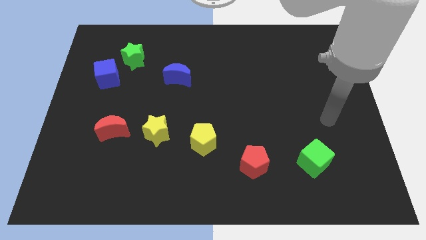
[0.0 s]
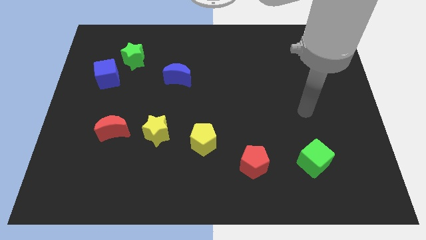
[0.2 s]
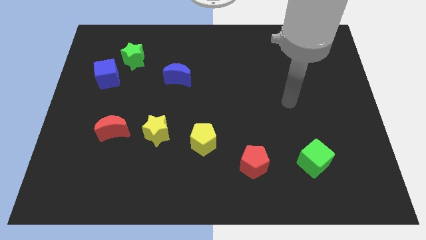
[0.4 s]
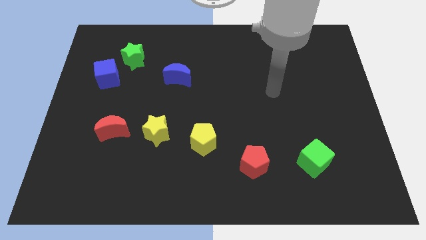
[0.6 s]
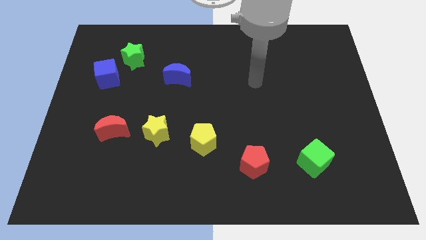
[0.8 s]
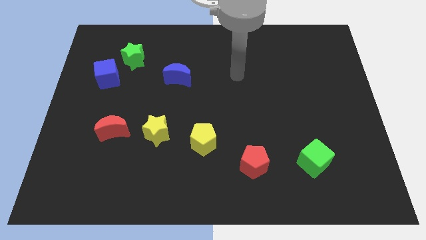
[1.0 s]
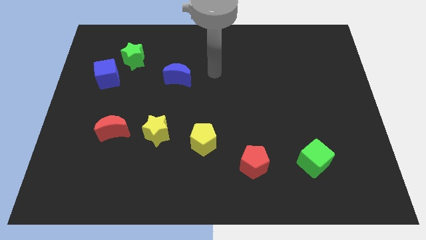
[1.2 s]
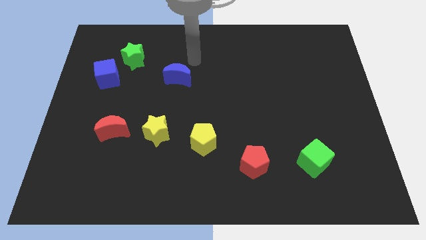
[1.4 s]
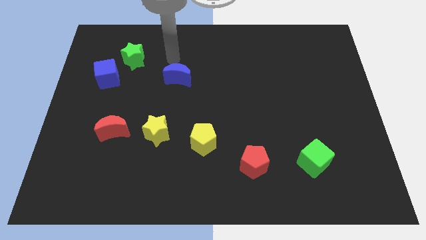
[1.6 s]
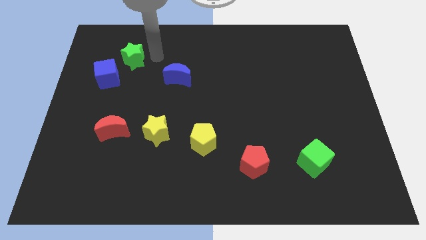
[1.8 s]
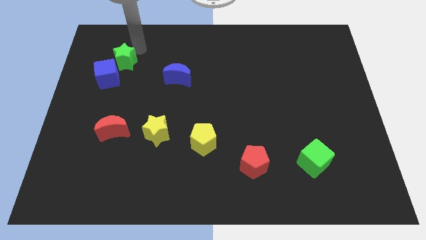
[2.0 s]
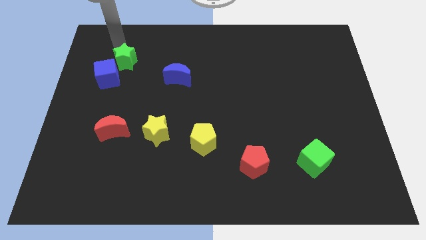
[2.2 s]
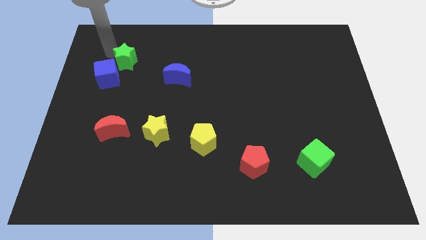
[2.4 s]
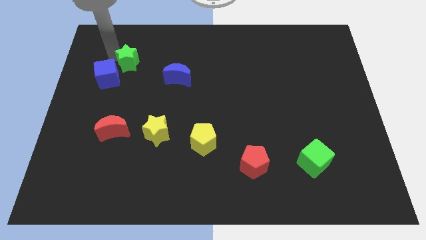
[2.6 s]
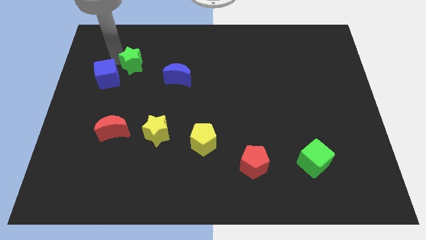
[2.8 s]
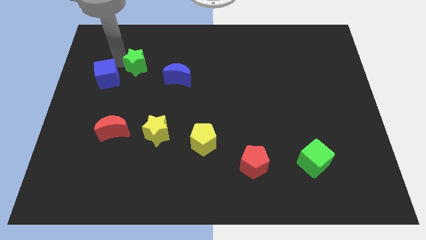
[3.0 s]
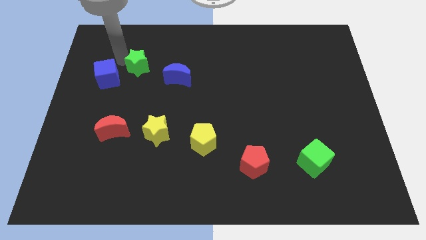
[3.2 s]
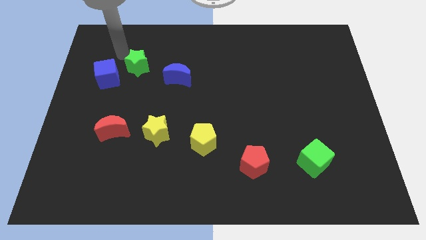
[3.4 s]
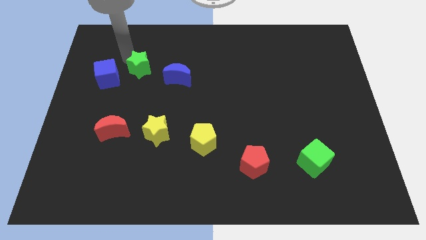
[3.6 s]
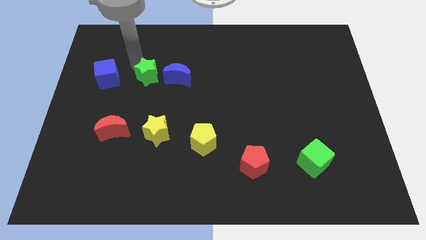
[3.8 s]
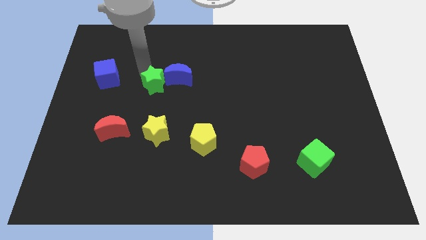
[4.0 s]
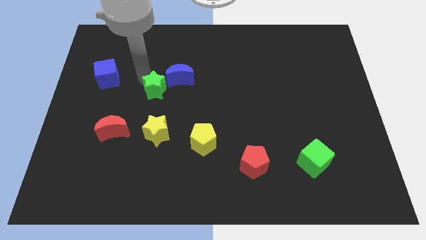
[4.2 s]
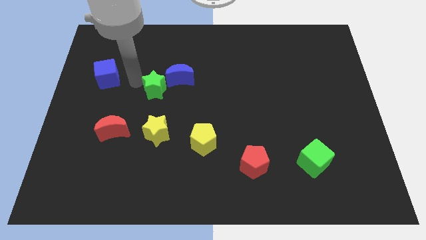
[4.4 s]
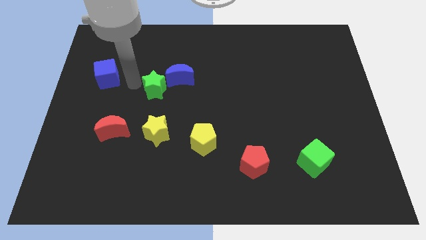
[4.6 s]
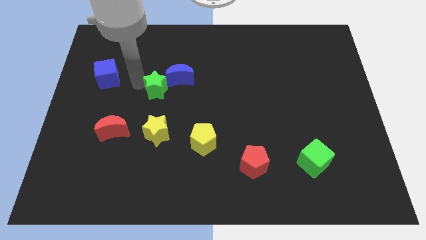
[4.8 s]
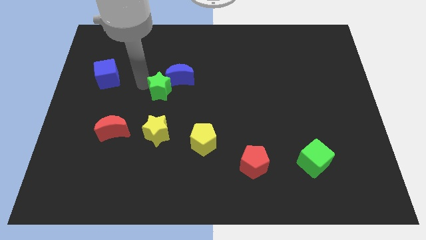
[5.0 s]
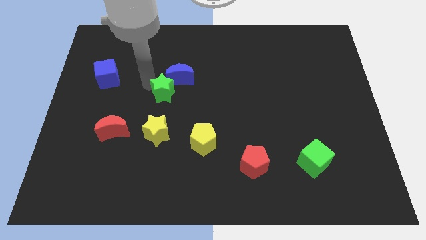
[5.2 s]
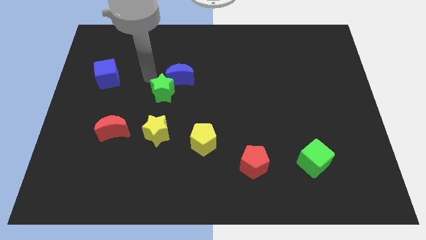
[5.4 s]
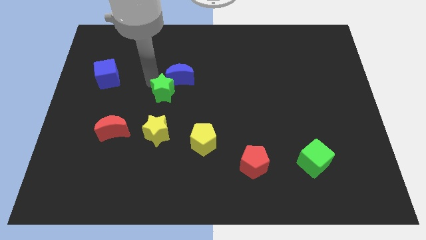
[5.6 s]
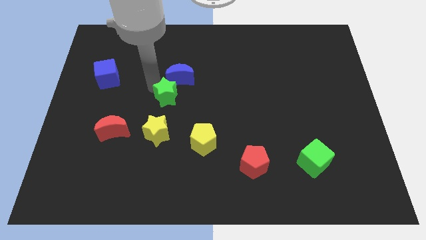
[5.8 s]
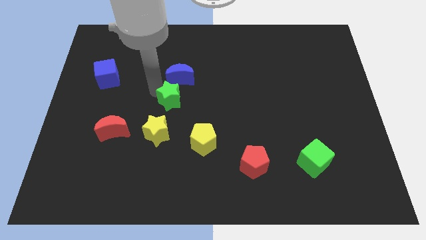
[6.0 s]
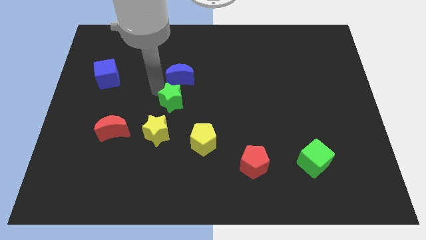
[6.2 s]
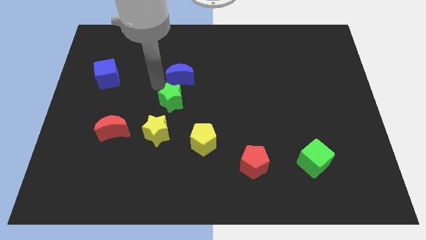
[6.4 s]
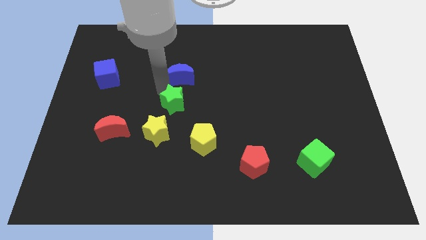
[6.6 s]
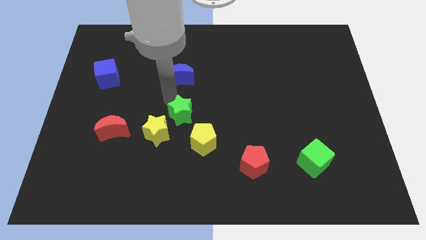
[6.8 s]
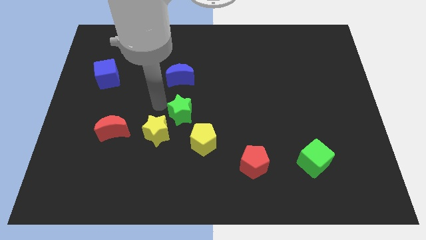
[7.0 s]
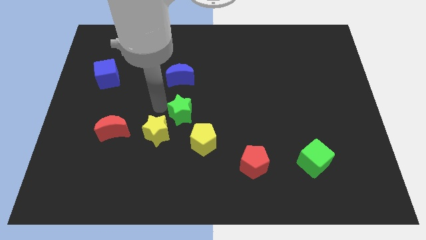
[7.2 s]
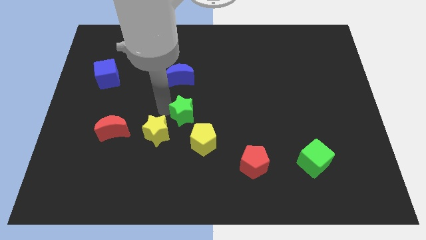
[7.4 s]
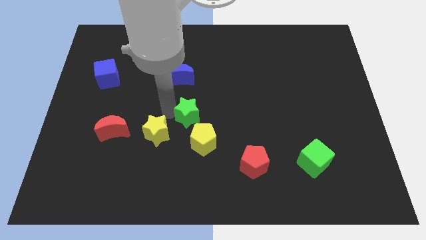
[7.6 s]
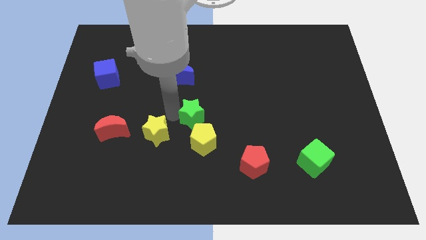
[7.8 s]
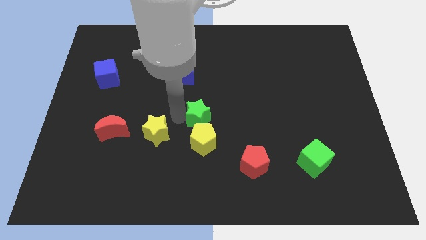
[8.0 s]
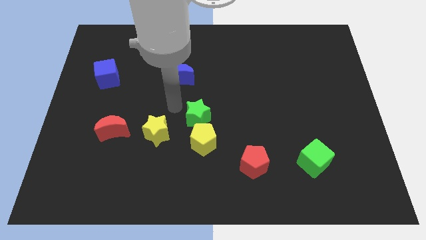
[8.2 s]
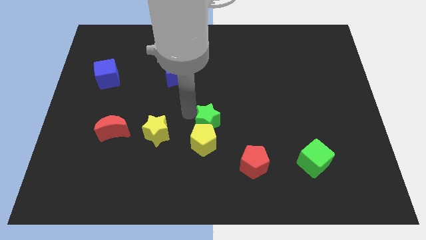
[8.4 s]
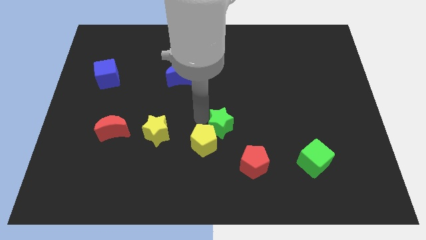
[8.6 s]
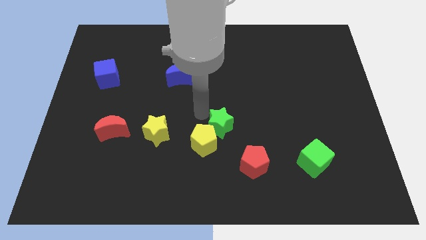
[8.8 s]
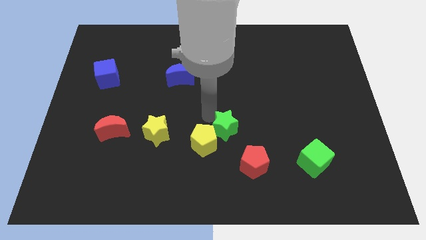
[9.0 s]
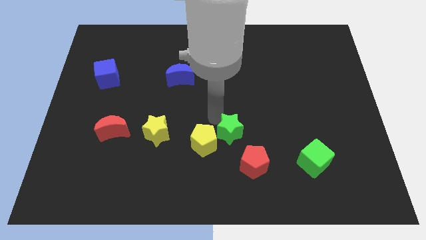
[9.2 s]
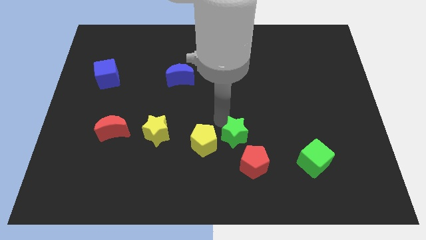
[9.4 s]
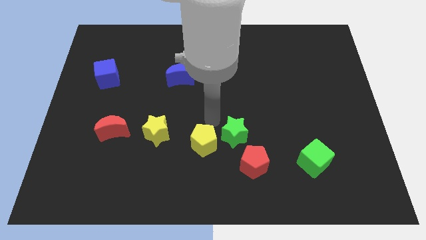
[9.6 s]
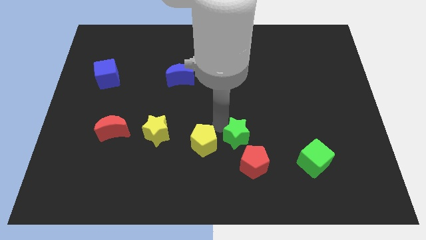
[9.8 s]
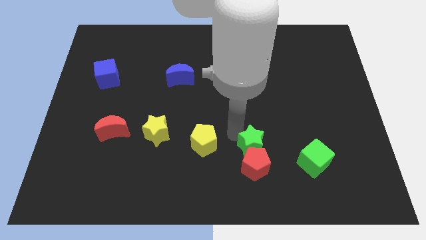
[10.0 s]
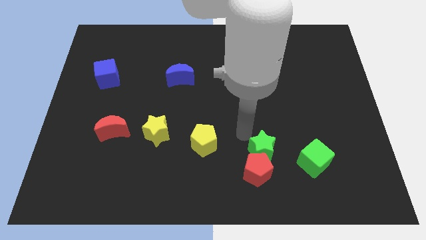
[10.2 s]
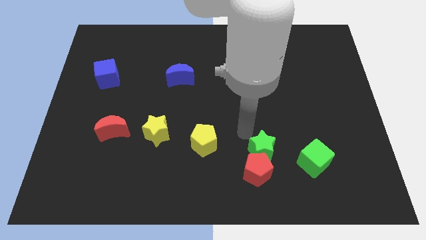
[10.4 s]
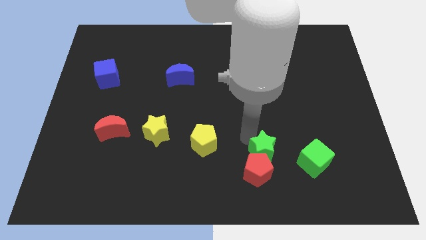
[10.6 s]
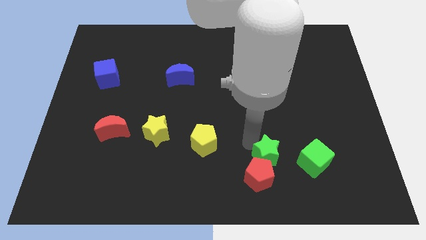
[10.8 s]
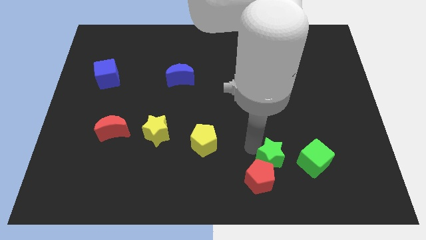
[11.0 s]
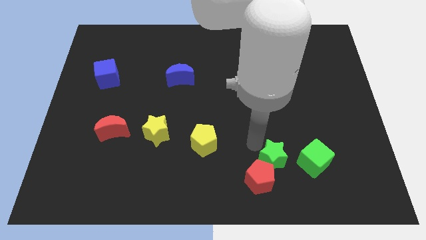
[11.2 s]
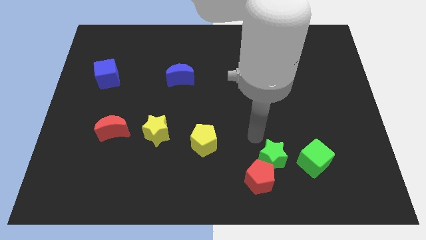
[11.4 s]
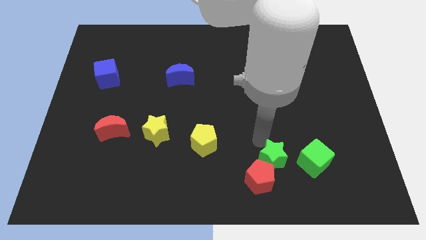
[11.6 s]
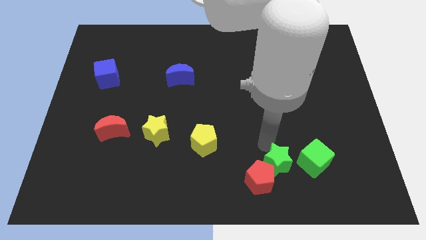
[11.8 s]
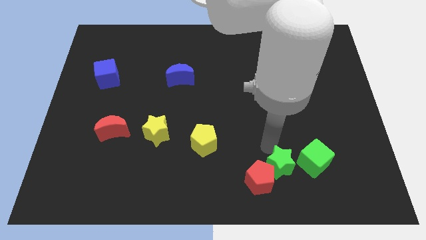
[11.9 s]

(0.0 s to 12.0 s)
push the green star diagonally down and to the left of the green cube
